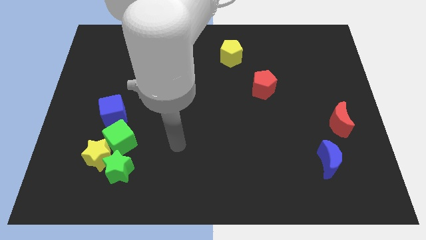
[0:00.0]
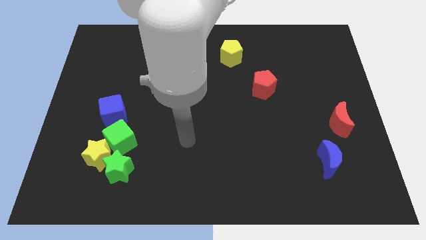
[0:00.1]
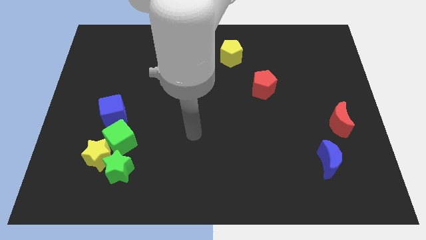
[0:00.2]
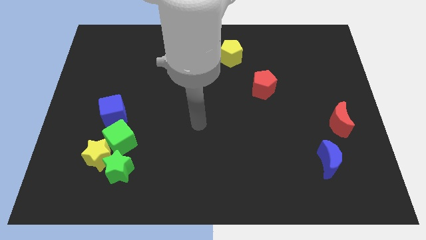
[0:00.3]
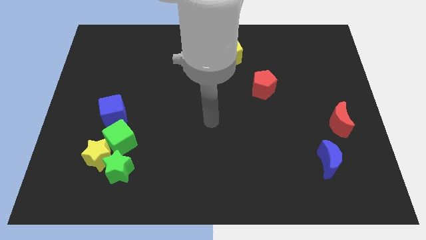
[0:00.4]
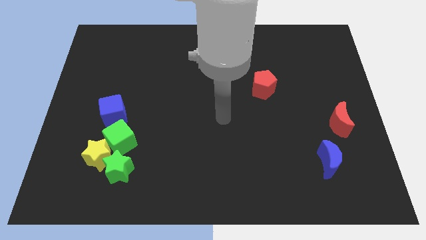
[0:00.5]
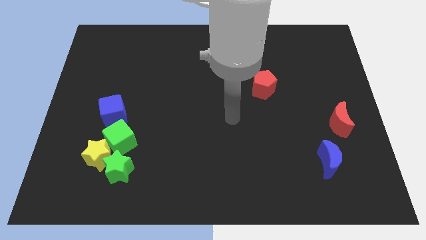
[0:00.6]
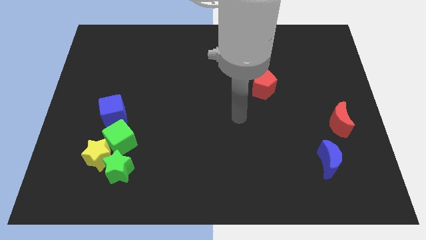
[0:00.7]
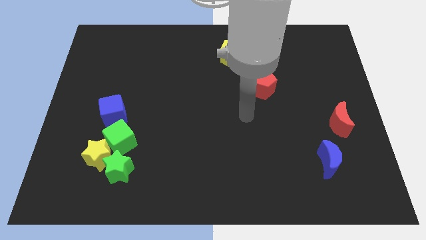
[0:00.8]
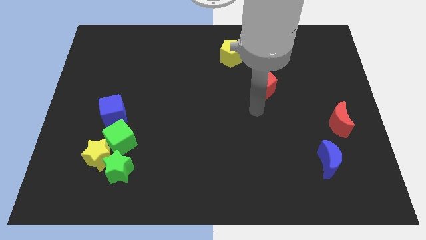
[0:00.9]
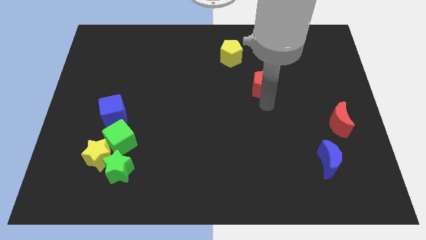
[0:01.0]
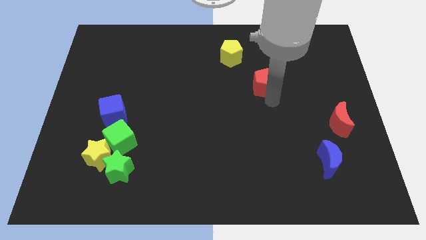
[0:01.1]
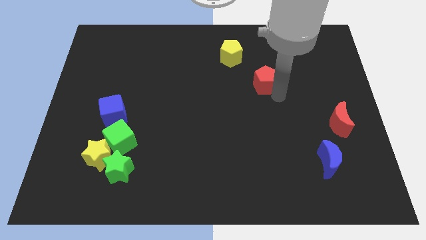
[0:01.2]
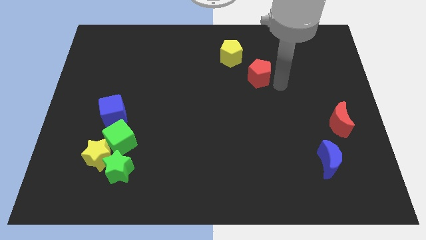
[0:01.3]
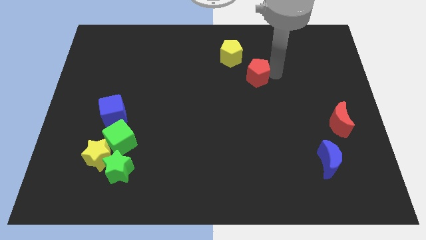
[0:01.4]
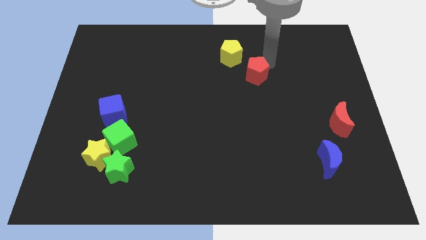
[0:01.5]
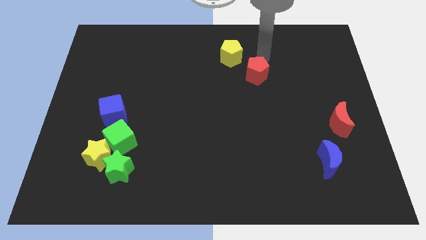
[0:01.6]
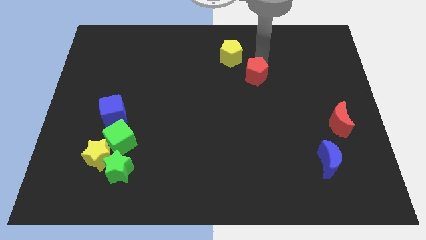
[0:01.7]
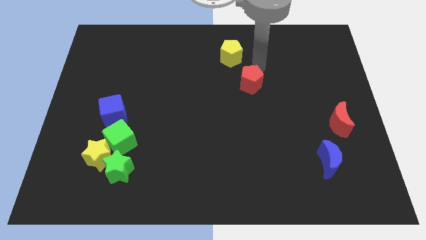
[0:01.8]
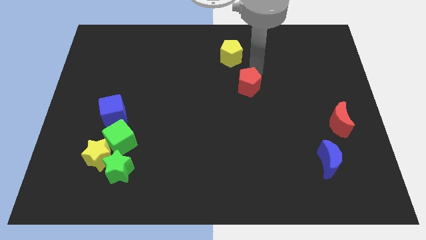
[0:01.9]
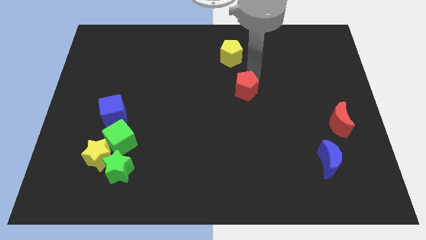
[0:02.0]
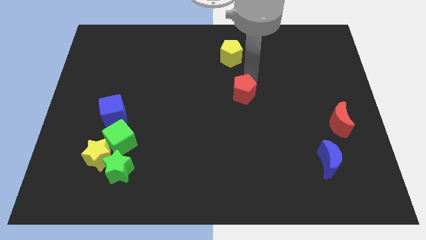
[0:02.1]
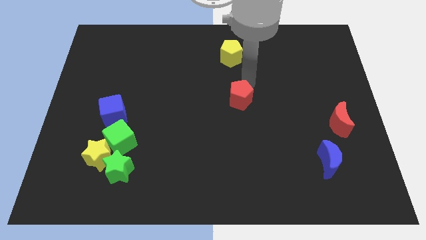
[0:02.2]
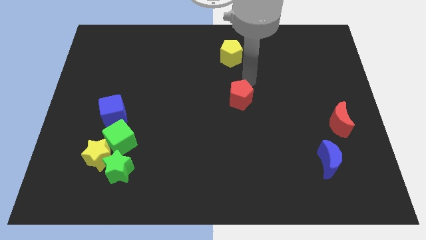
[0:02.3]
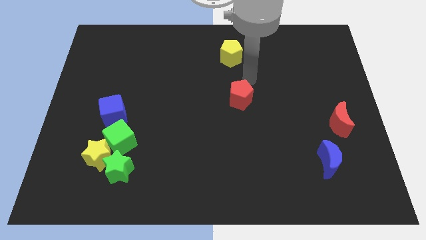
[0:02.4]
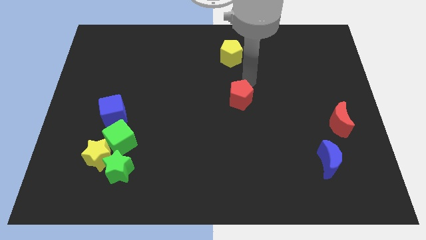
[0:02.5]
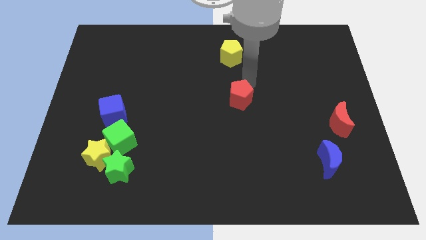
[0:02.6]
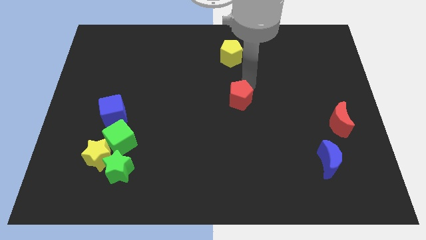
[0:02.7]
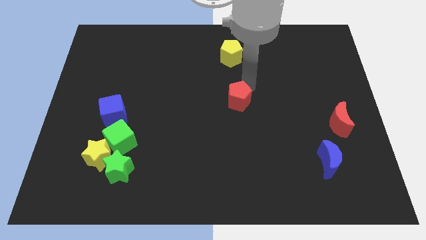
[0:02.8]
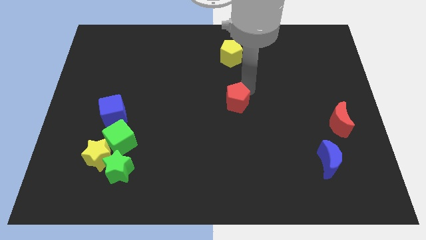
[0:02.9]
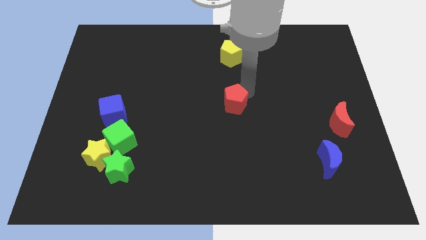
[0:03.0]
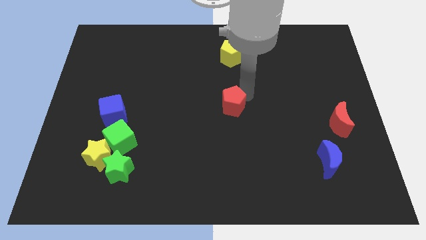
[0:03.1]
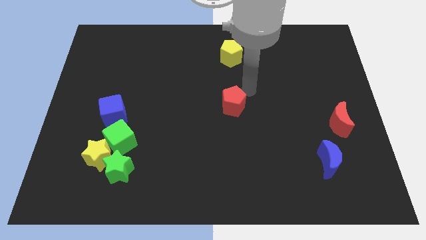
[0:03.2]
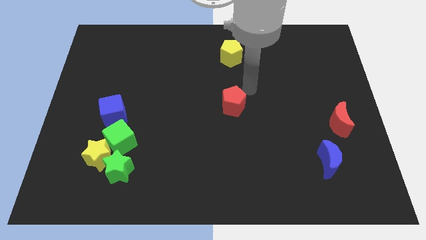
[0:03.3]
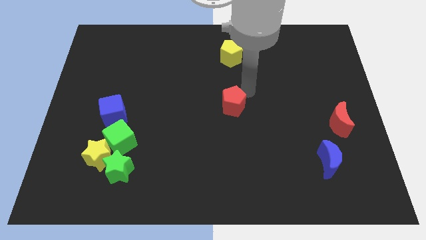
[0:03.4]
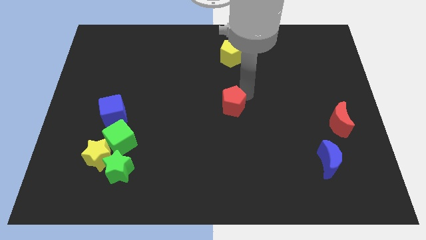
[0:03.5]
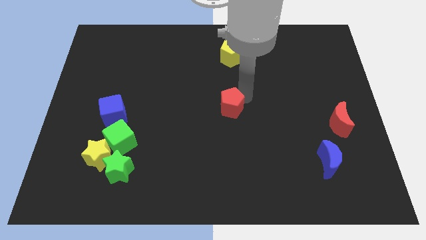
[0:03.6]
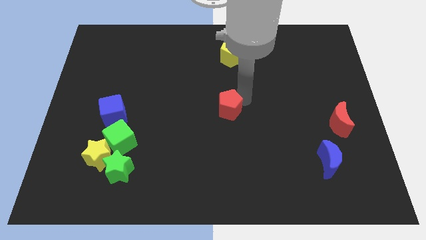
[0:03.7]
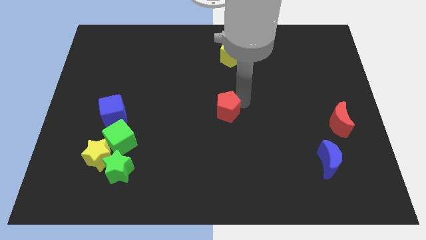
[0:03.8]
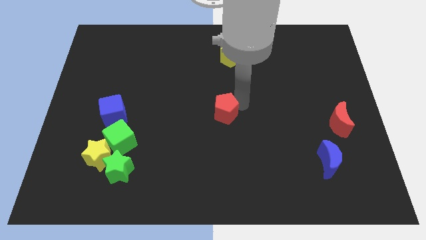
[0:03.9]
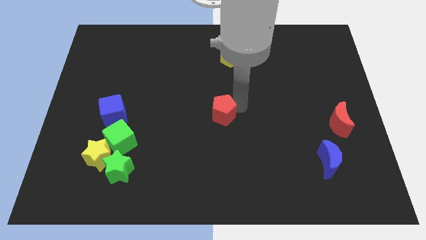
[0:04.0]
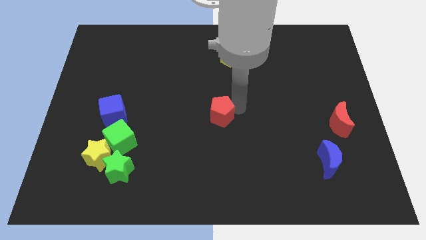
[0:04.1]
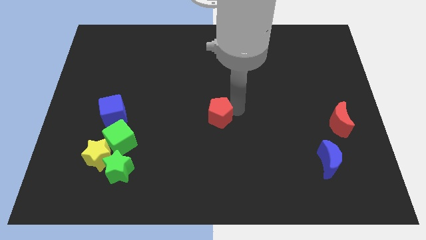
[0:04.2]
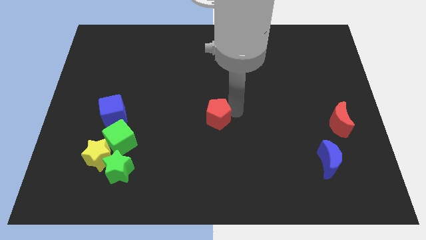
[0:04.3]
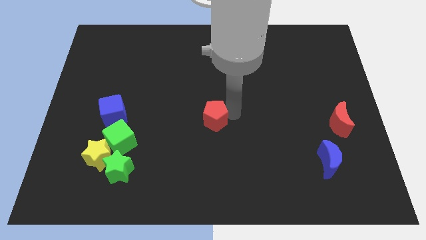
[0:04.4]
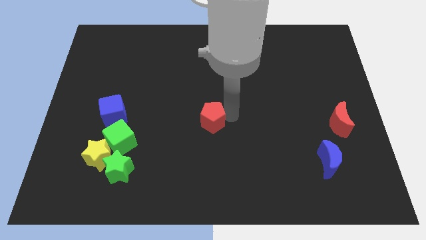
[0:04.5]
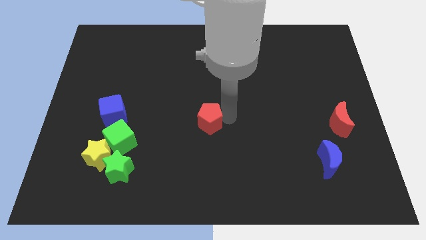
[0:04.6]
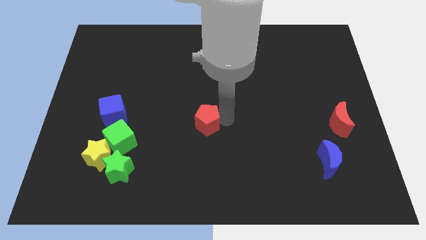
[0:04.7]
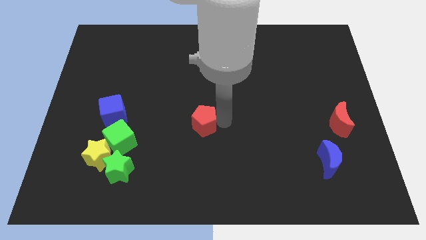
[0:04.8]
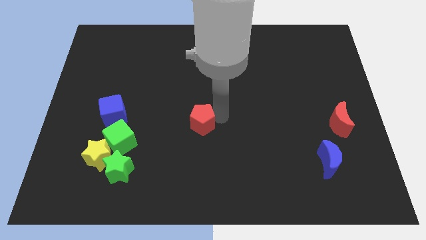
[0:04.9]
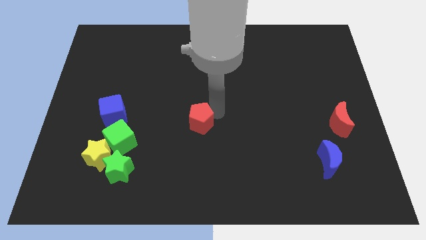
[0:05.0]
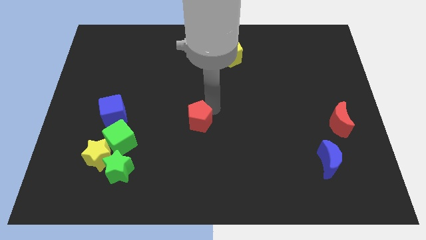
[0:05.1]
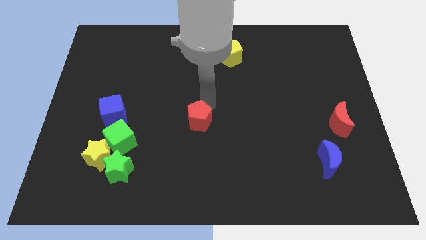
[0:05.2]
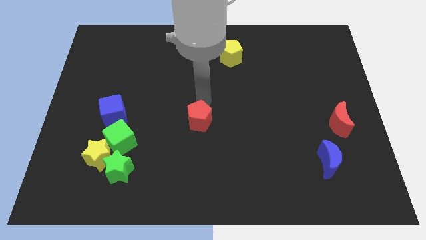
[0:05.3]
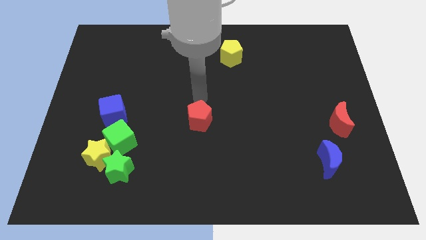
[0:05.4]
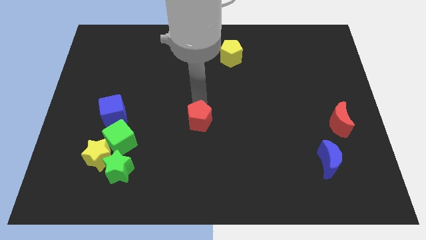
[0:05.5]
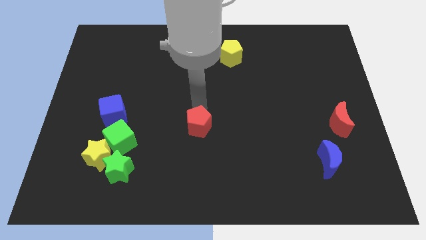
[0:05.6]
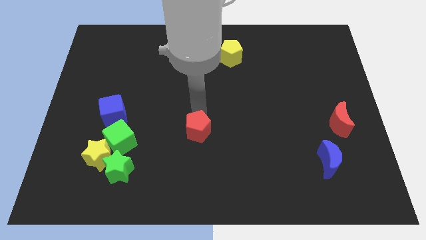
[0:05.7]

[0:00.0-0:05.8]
push the red pentagon downwards and then left

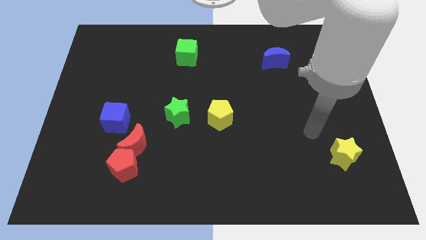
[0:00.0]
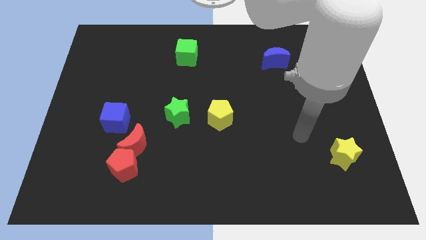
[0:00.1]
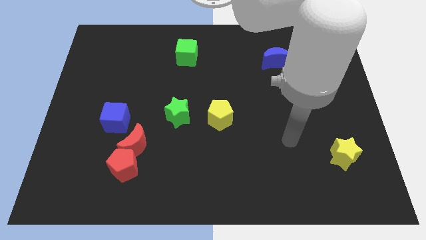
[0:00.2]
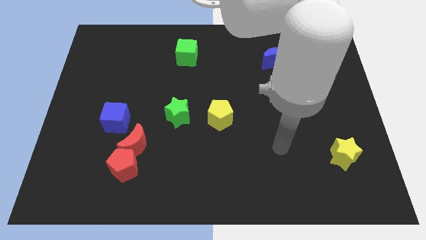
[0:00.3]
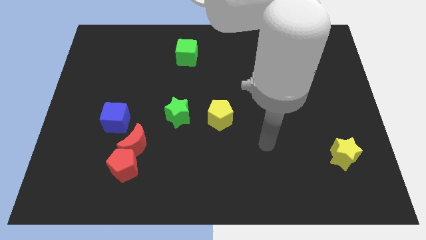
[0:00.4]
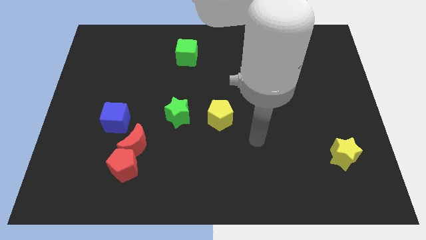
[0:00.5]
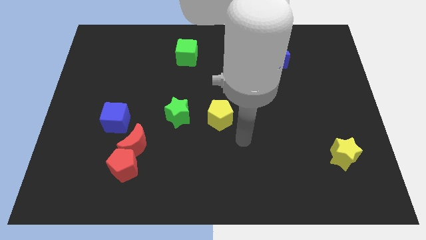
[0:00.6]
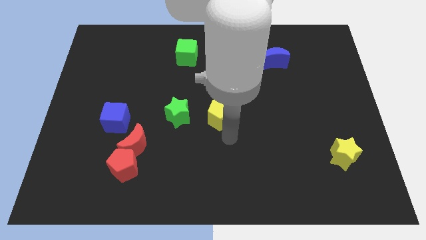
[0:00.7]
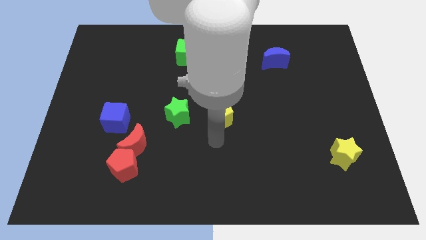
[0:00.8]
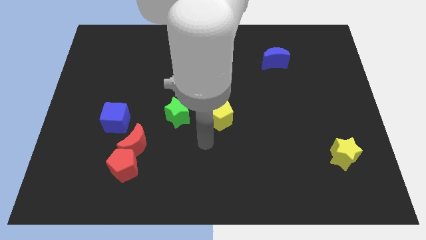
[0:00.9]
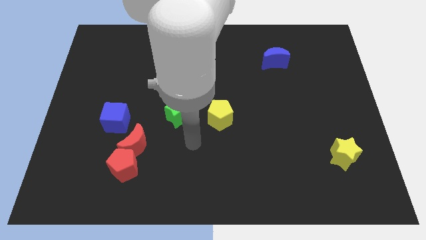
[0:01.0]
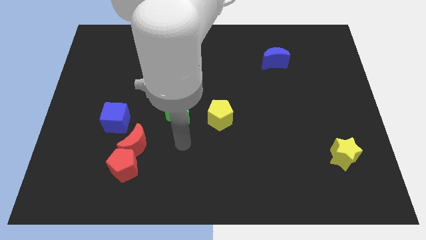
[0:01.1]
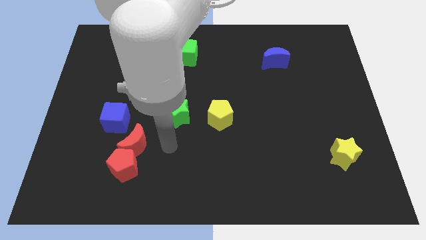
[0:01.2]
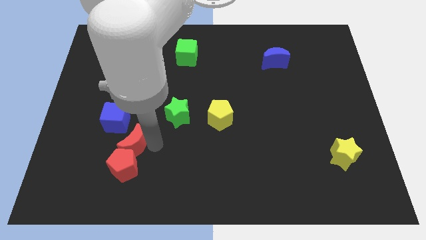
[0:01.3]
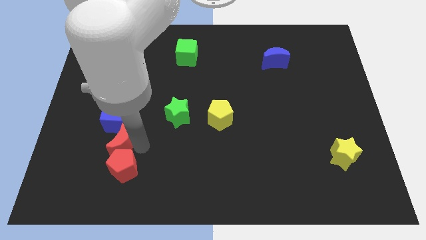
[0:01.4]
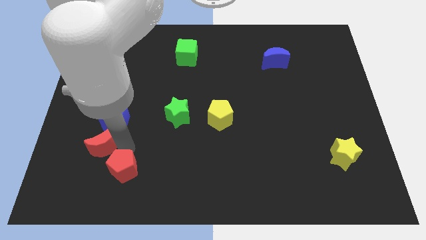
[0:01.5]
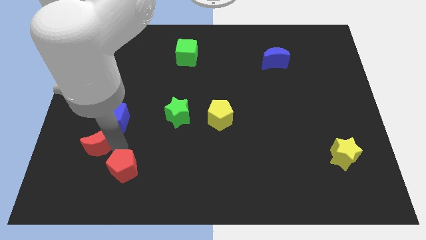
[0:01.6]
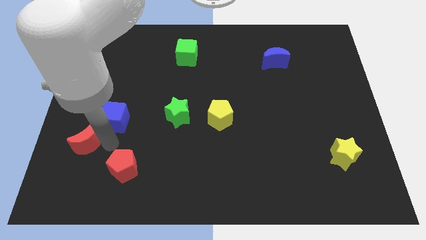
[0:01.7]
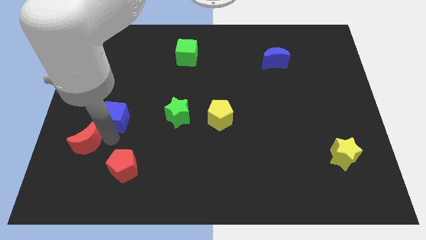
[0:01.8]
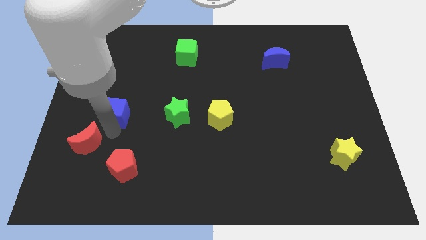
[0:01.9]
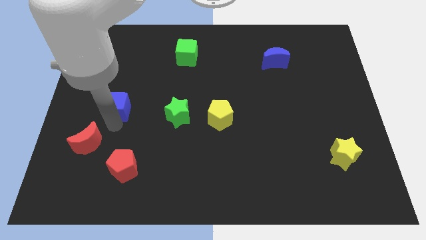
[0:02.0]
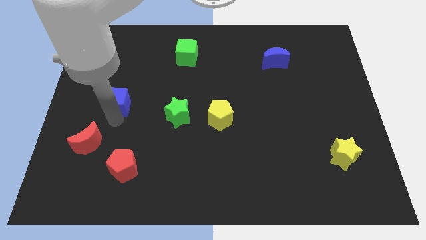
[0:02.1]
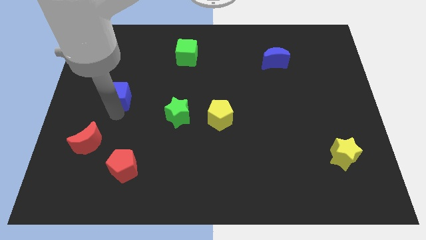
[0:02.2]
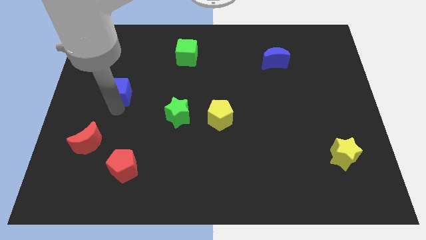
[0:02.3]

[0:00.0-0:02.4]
slightly move the blue cube up
